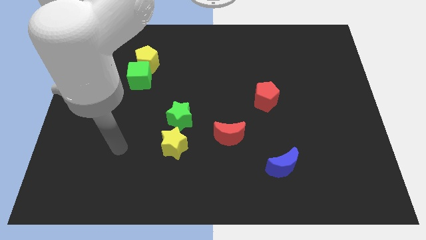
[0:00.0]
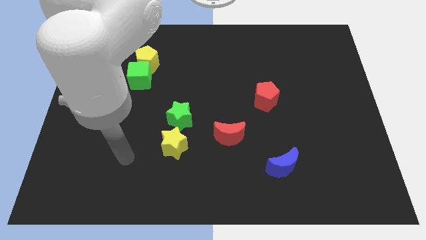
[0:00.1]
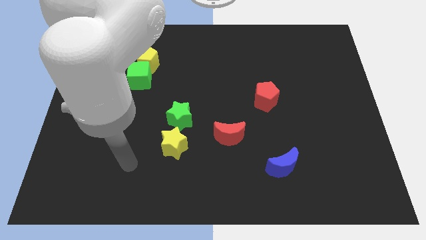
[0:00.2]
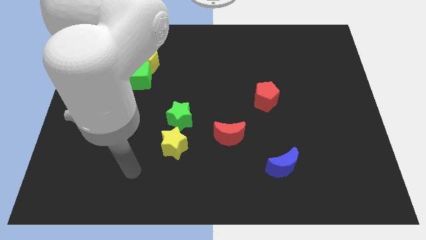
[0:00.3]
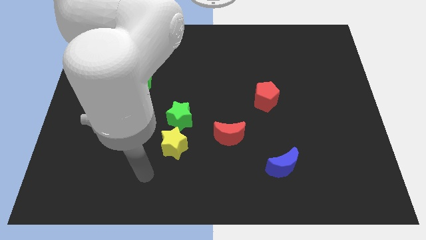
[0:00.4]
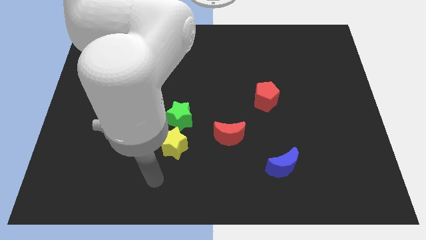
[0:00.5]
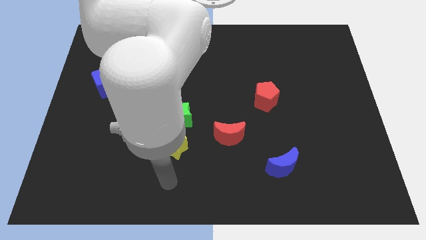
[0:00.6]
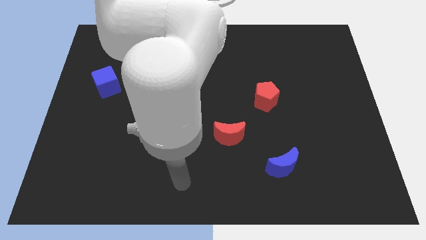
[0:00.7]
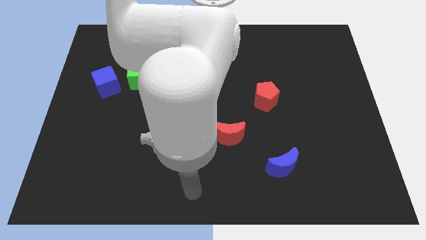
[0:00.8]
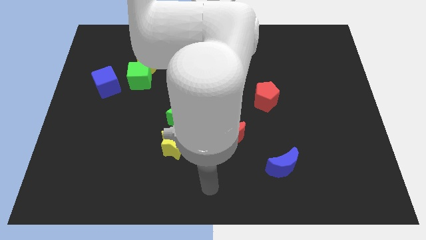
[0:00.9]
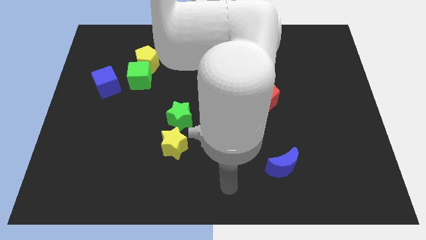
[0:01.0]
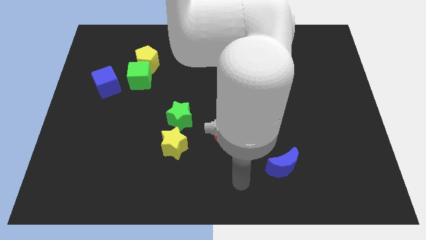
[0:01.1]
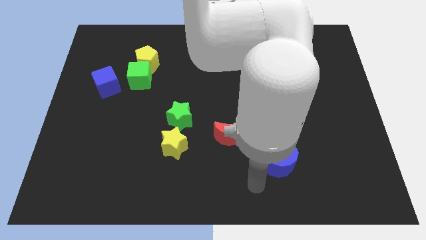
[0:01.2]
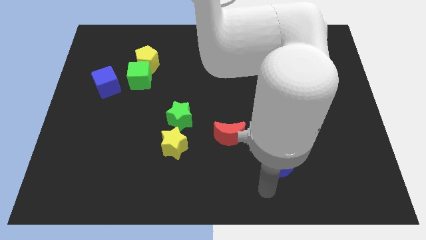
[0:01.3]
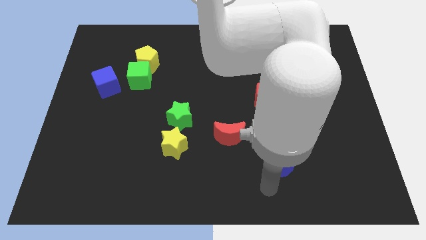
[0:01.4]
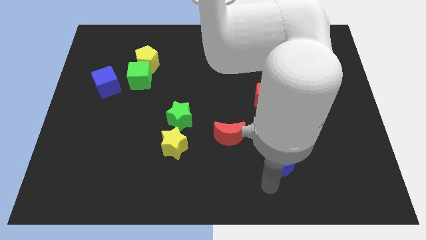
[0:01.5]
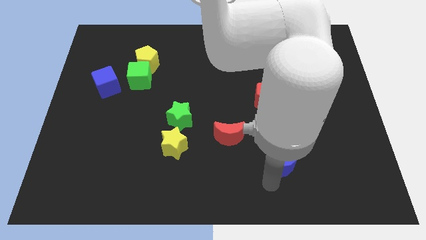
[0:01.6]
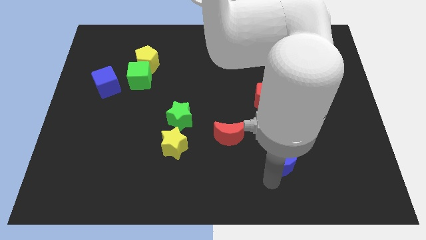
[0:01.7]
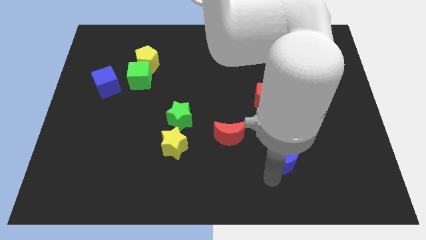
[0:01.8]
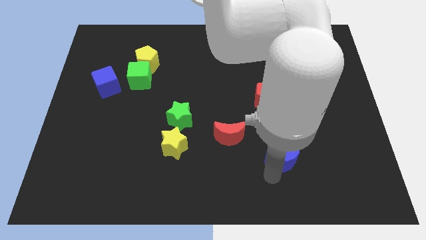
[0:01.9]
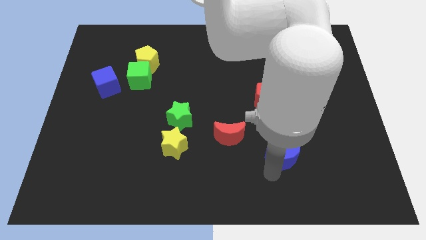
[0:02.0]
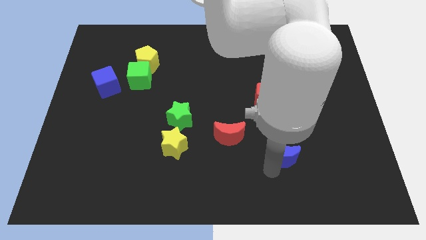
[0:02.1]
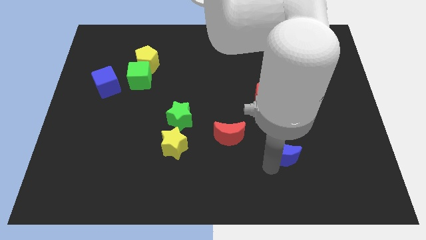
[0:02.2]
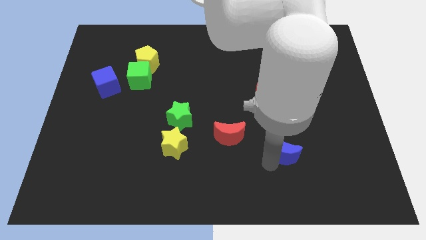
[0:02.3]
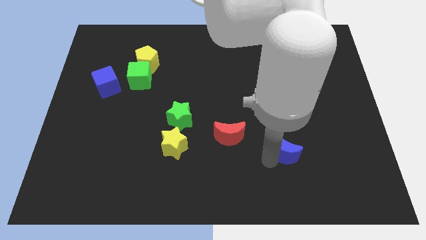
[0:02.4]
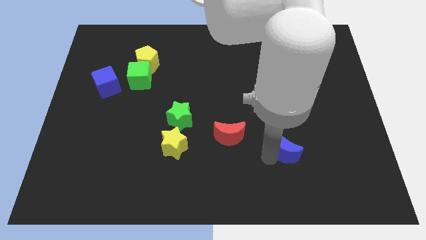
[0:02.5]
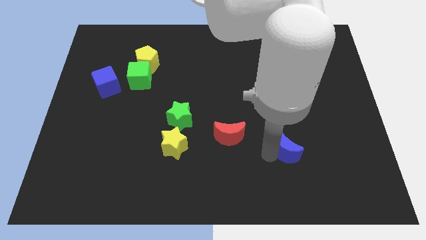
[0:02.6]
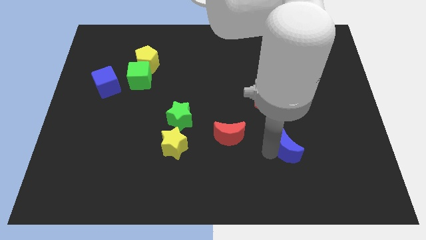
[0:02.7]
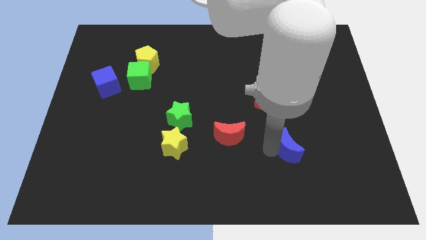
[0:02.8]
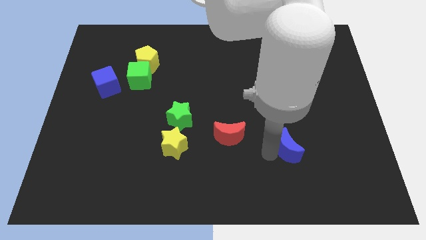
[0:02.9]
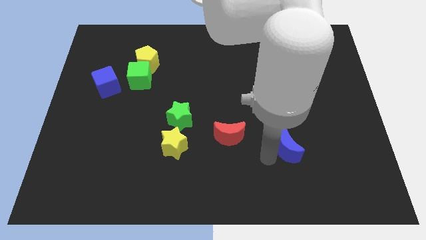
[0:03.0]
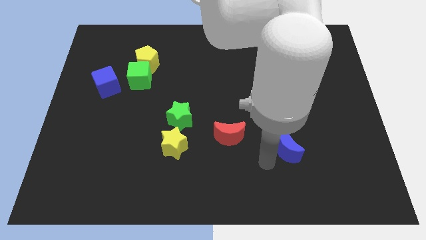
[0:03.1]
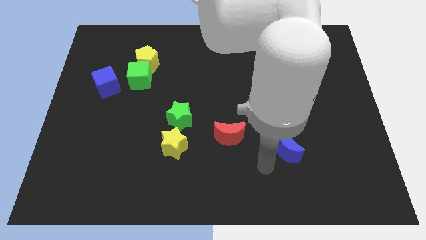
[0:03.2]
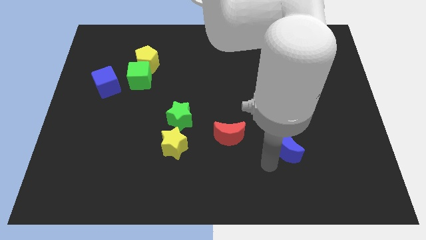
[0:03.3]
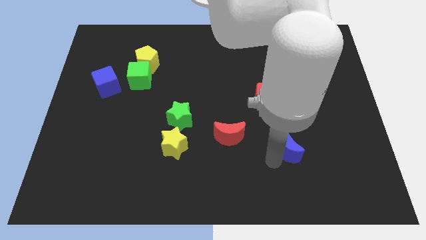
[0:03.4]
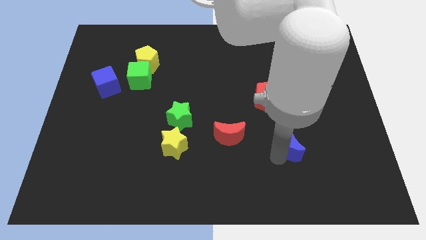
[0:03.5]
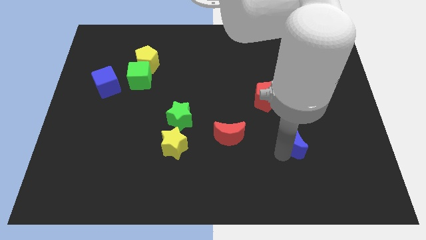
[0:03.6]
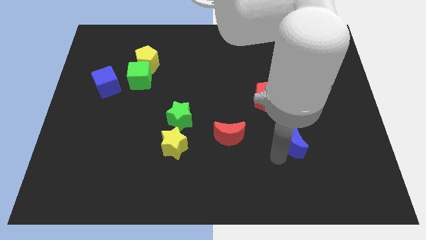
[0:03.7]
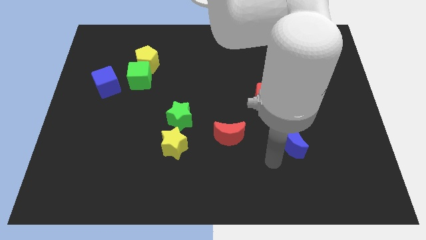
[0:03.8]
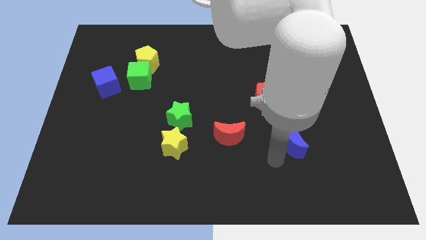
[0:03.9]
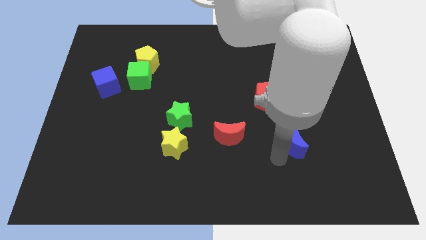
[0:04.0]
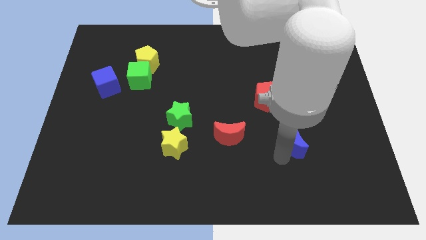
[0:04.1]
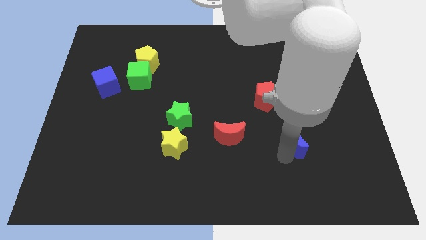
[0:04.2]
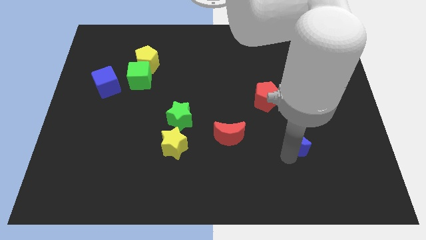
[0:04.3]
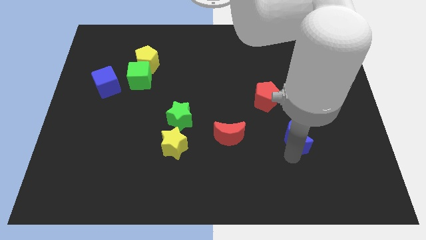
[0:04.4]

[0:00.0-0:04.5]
push the blue moon a little bit up and to the right

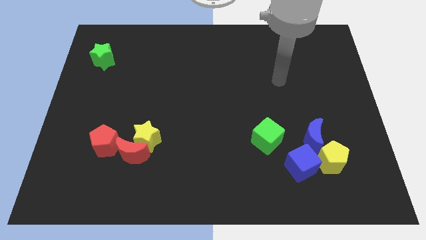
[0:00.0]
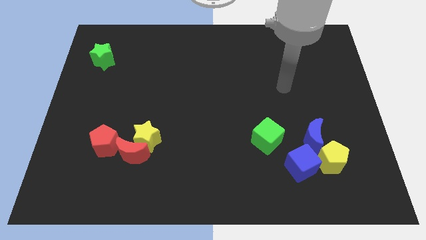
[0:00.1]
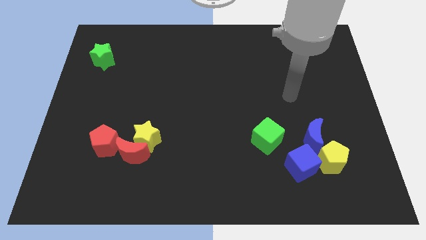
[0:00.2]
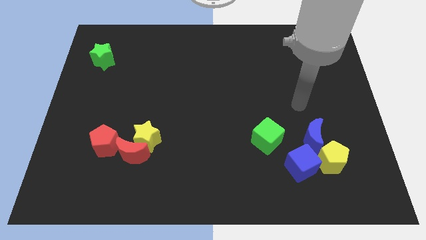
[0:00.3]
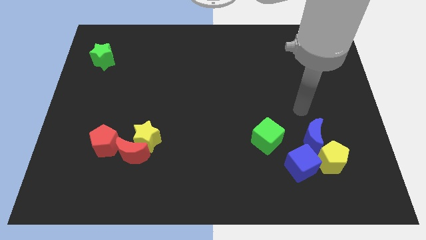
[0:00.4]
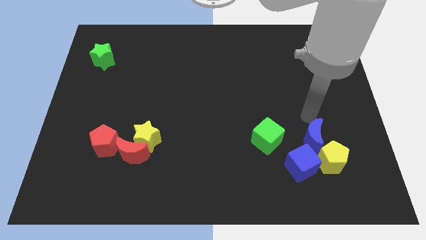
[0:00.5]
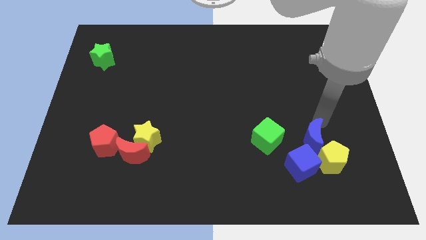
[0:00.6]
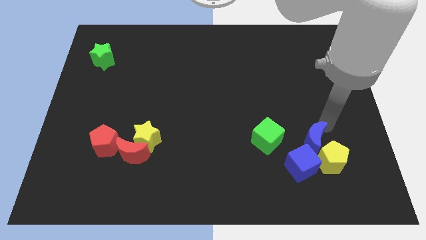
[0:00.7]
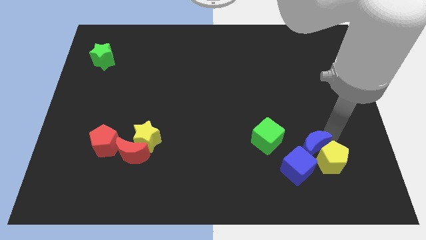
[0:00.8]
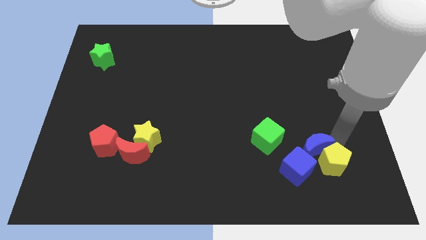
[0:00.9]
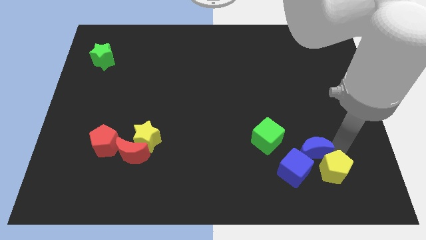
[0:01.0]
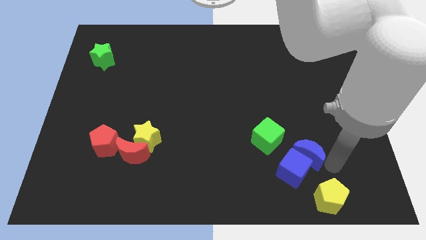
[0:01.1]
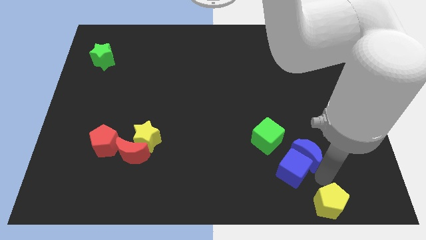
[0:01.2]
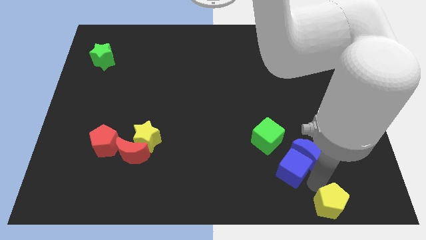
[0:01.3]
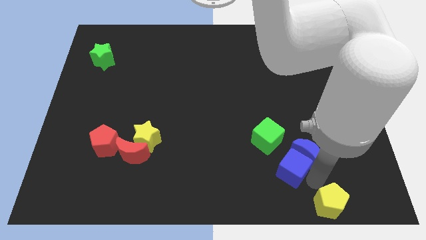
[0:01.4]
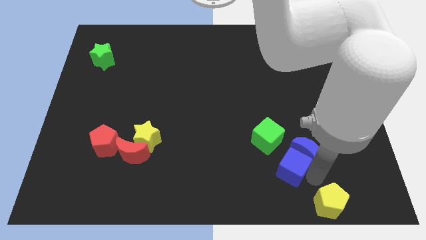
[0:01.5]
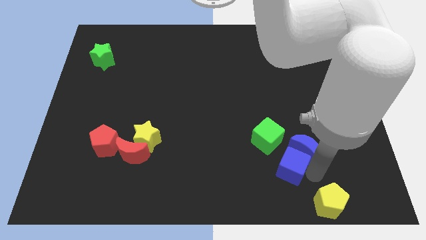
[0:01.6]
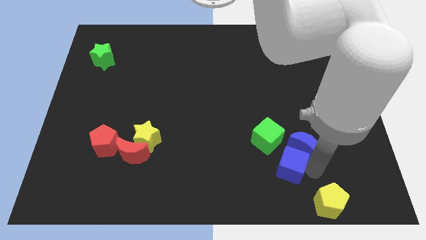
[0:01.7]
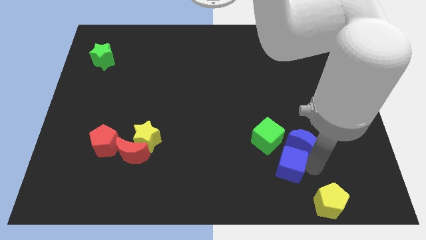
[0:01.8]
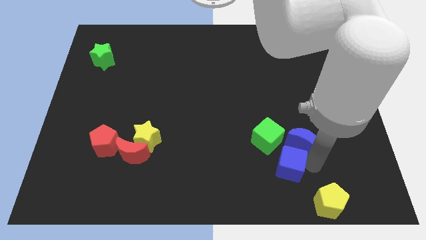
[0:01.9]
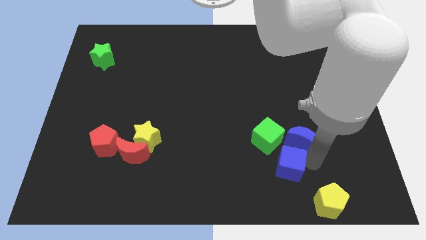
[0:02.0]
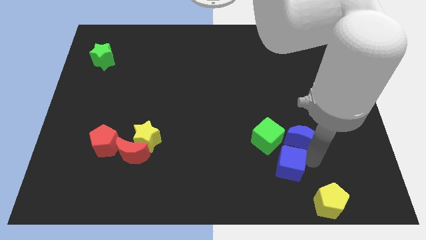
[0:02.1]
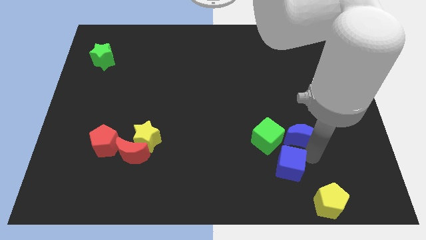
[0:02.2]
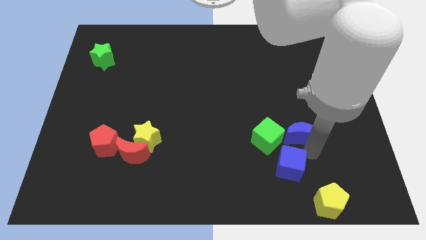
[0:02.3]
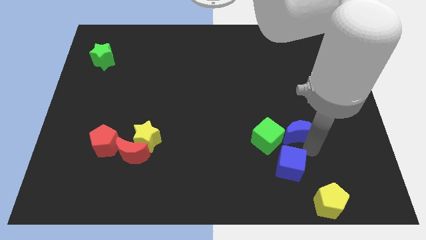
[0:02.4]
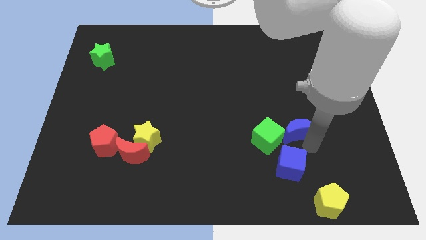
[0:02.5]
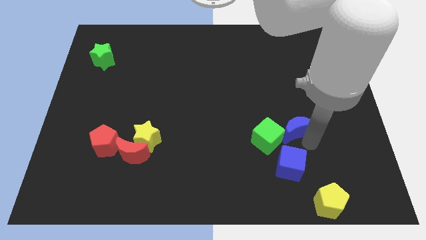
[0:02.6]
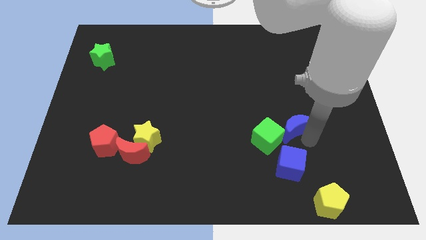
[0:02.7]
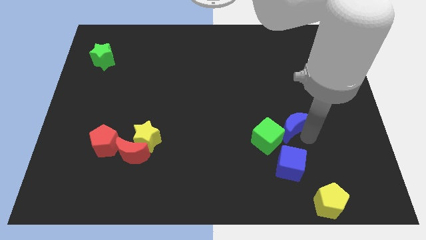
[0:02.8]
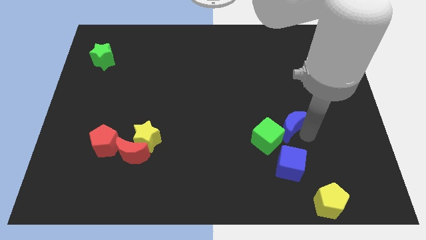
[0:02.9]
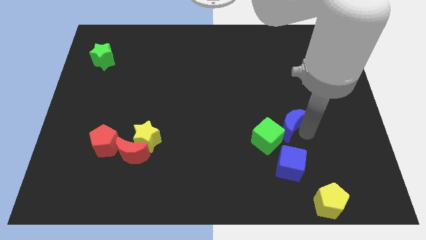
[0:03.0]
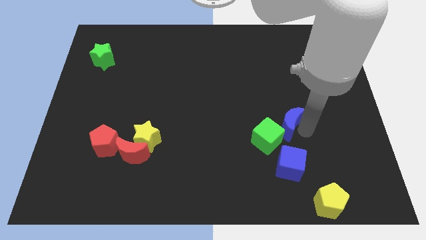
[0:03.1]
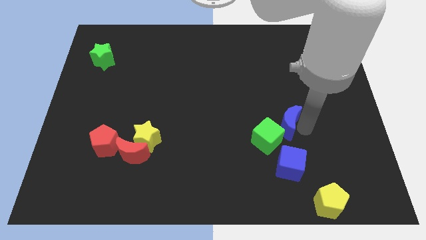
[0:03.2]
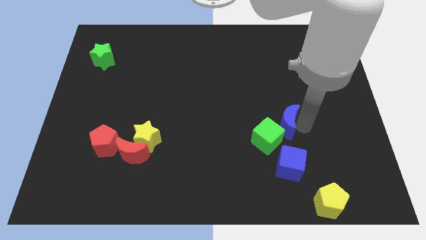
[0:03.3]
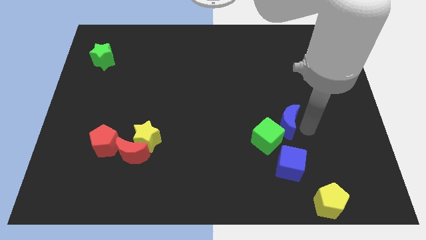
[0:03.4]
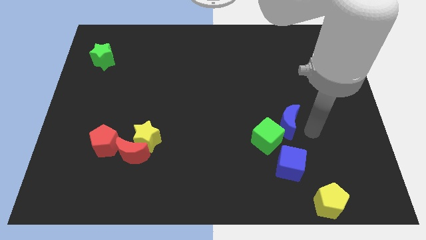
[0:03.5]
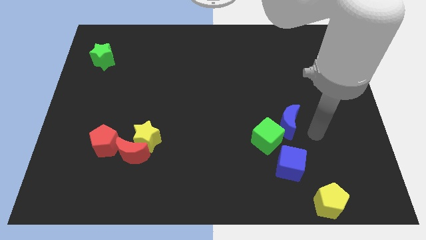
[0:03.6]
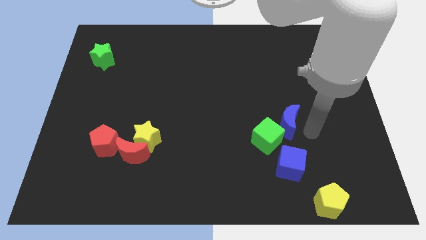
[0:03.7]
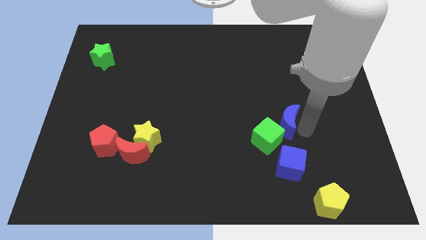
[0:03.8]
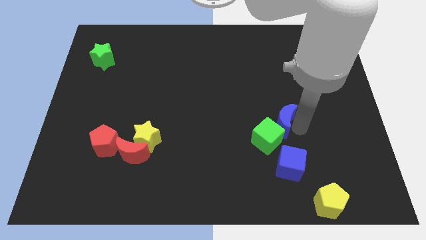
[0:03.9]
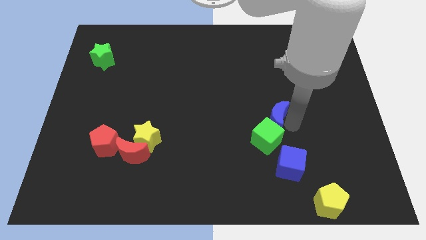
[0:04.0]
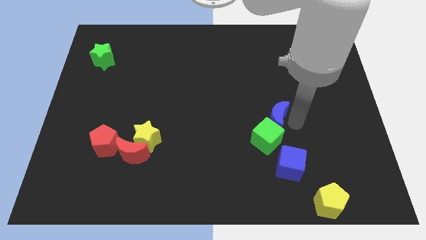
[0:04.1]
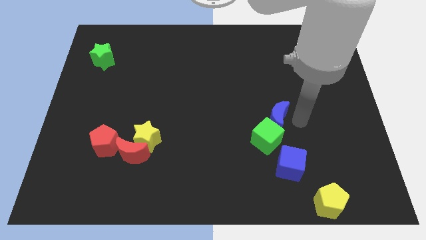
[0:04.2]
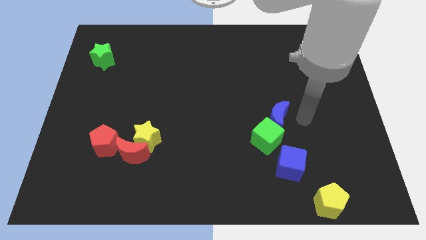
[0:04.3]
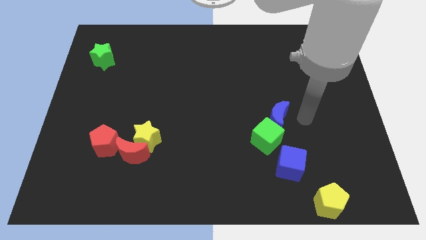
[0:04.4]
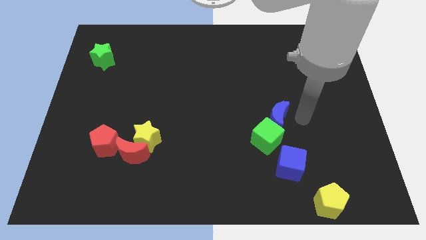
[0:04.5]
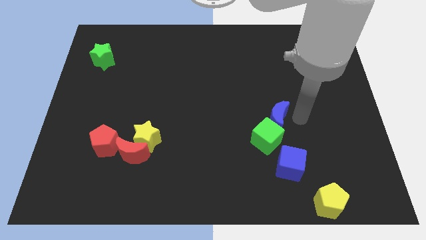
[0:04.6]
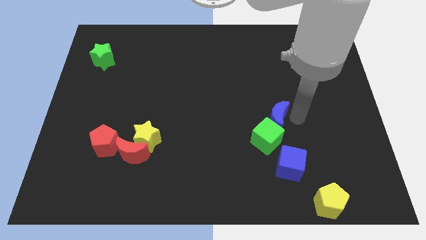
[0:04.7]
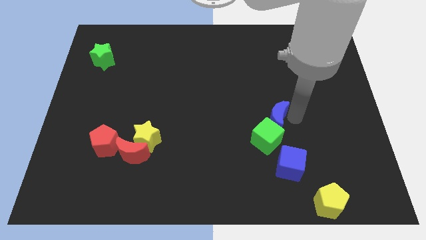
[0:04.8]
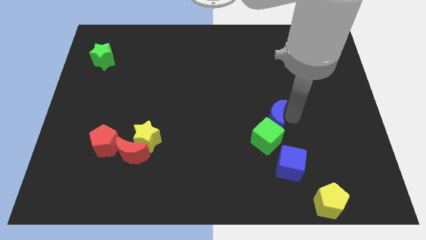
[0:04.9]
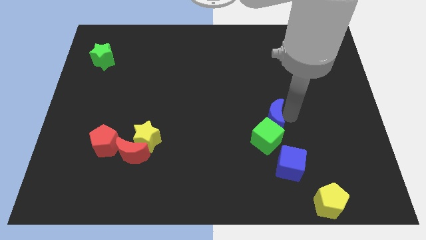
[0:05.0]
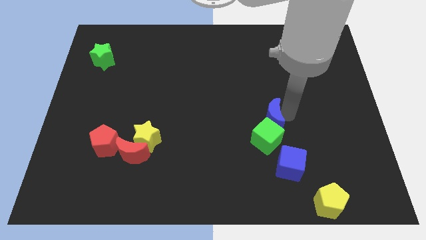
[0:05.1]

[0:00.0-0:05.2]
slightly push the blue moon left
